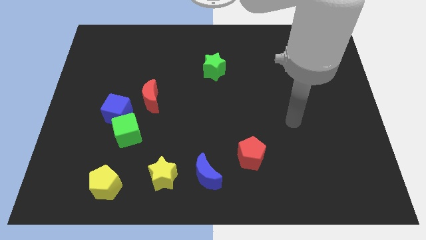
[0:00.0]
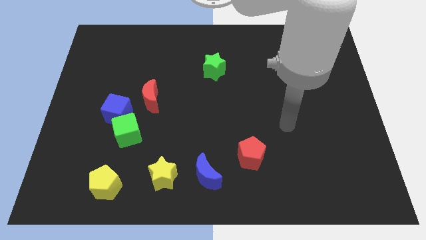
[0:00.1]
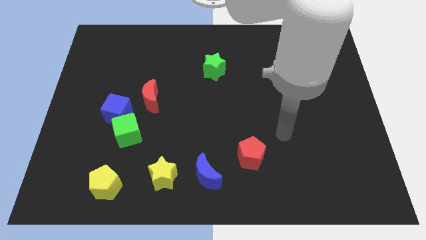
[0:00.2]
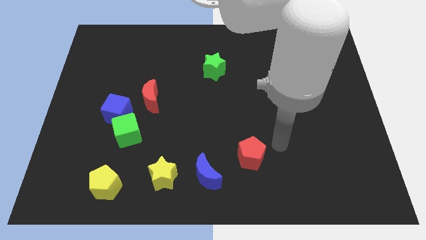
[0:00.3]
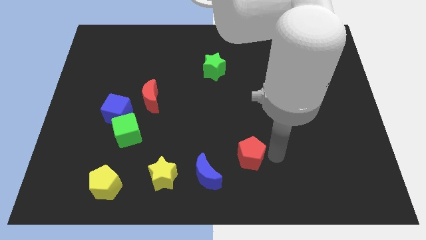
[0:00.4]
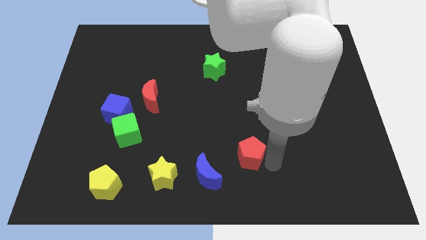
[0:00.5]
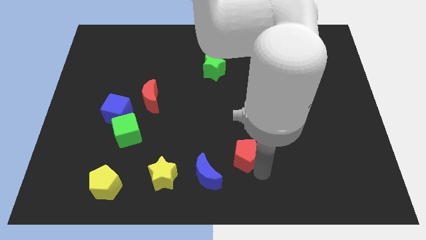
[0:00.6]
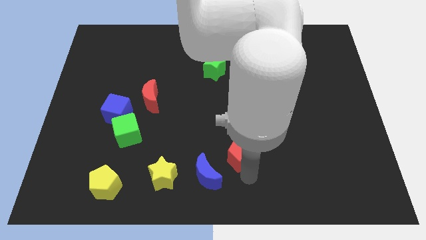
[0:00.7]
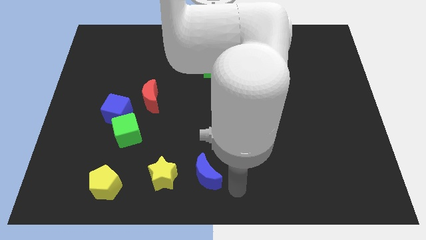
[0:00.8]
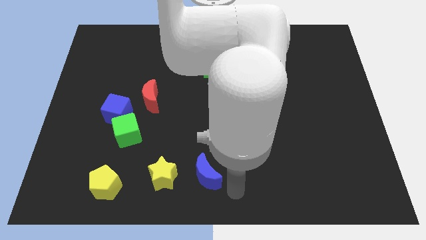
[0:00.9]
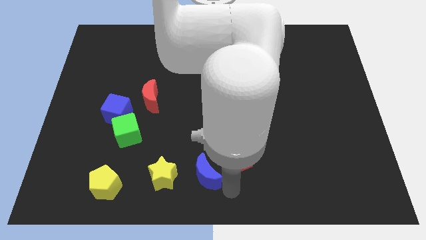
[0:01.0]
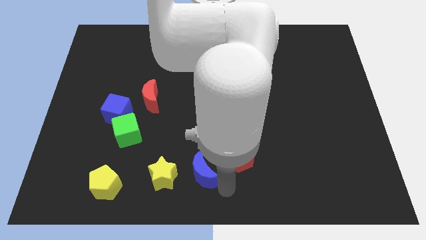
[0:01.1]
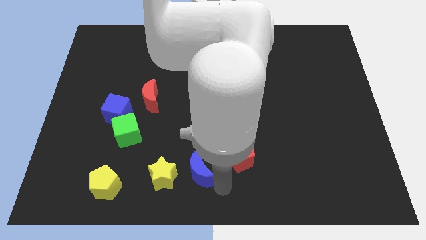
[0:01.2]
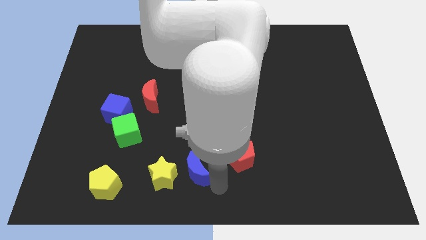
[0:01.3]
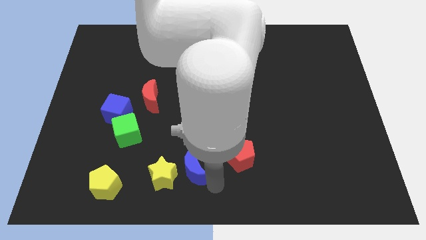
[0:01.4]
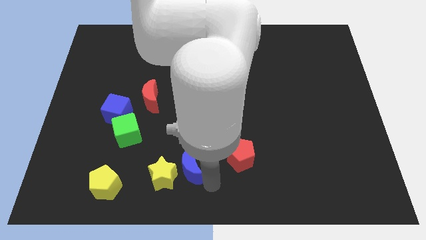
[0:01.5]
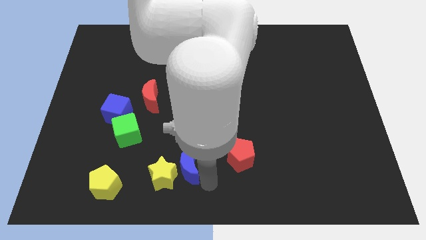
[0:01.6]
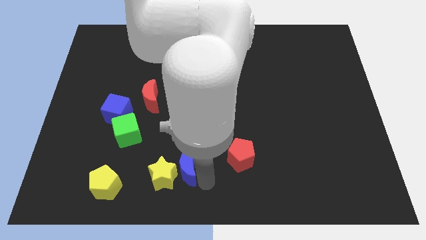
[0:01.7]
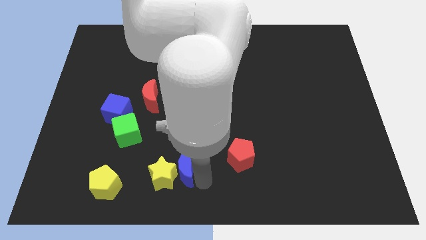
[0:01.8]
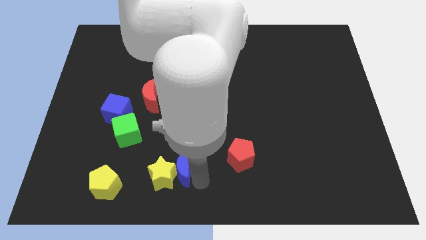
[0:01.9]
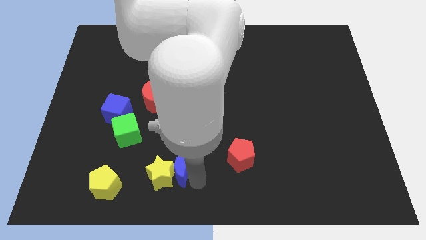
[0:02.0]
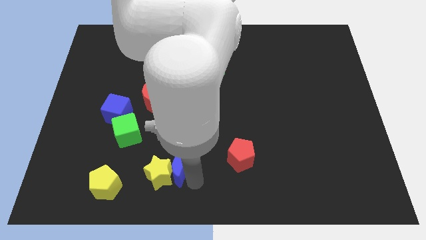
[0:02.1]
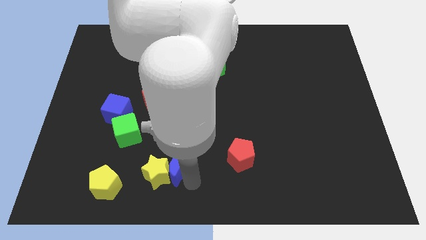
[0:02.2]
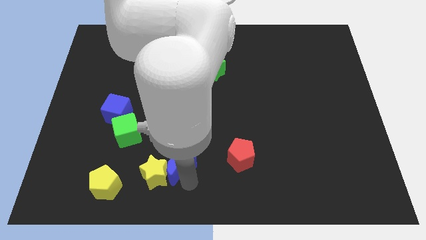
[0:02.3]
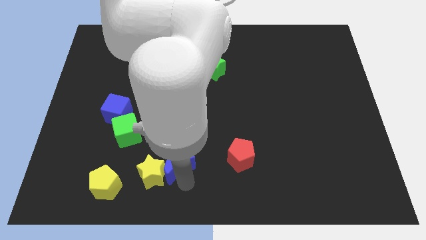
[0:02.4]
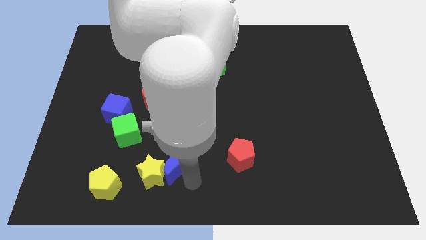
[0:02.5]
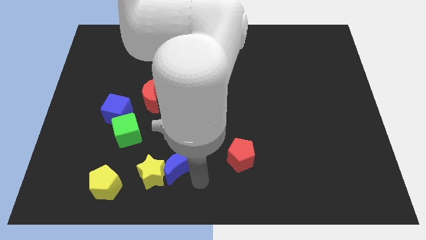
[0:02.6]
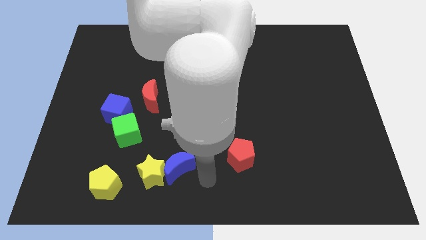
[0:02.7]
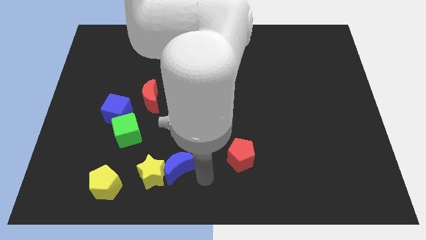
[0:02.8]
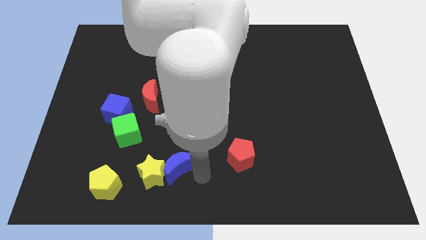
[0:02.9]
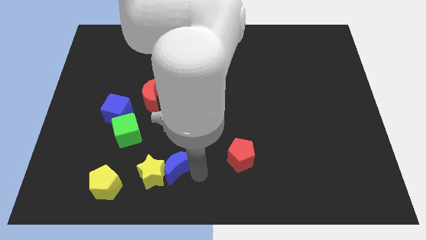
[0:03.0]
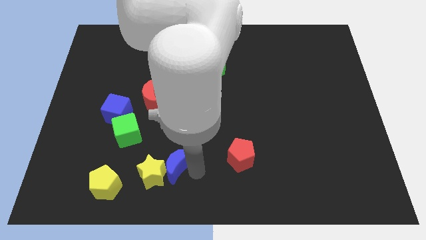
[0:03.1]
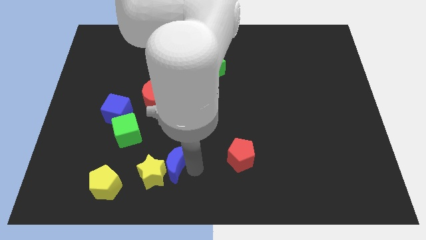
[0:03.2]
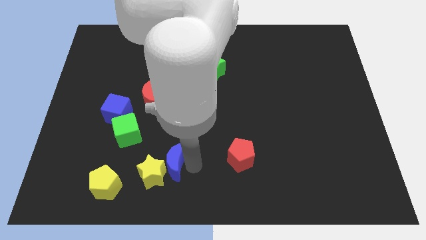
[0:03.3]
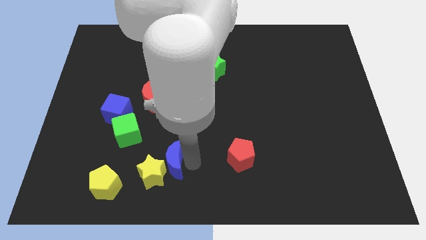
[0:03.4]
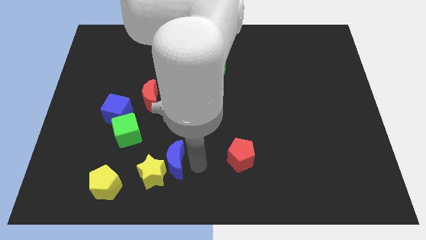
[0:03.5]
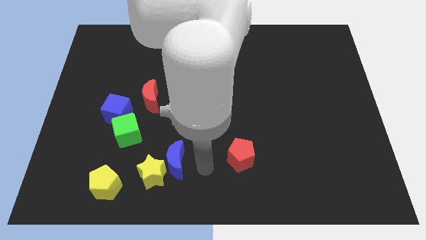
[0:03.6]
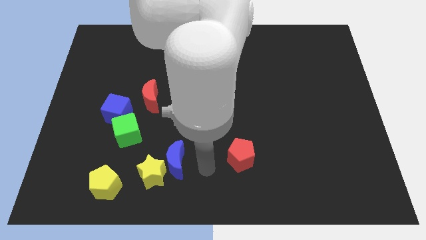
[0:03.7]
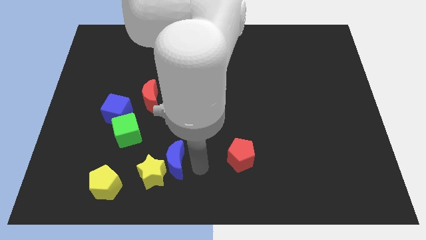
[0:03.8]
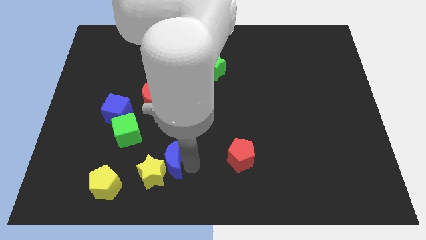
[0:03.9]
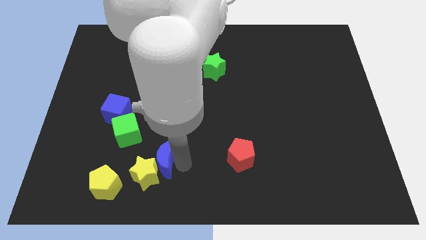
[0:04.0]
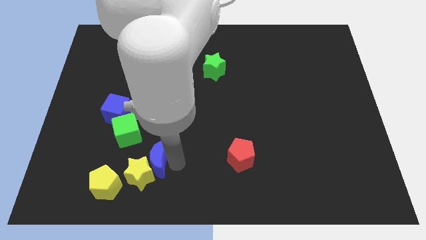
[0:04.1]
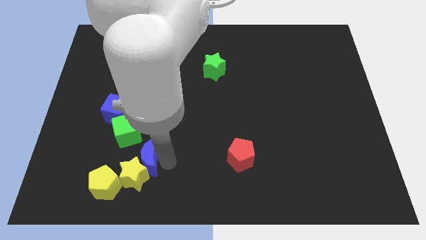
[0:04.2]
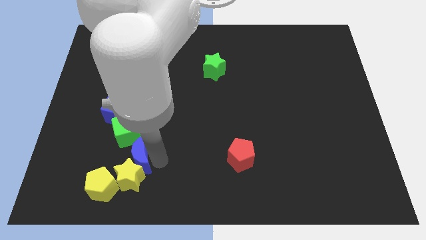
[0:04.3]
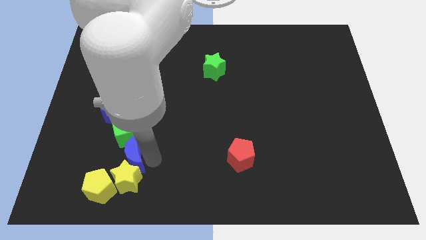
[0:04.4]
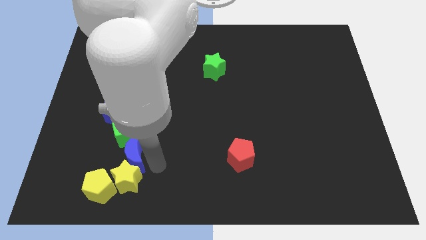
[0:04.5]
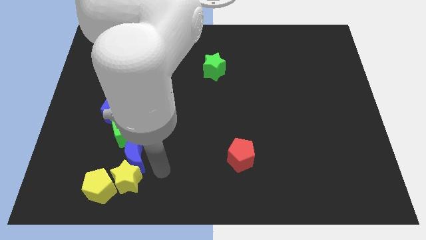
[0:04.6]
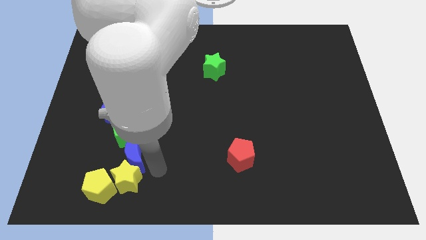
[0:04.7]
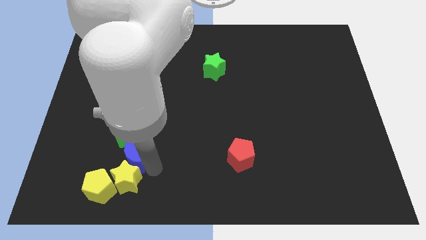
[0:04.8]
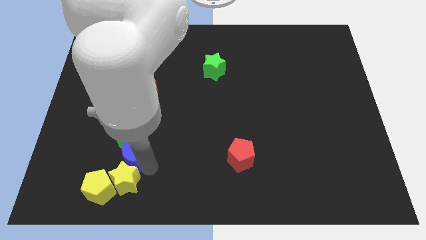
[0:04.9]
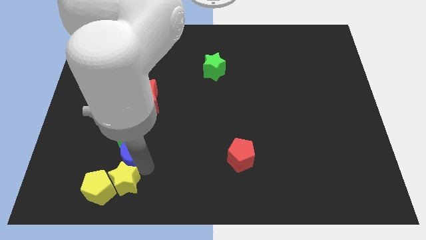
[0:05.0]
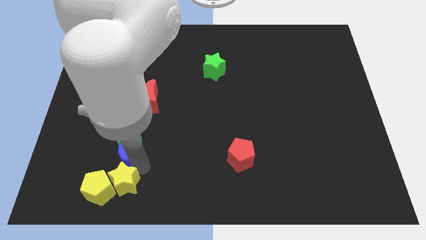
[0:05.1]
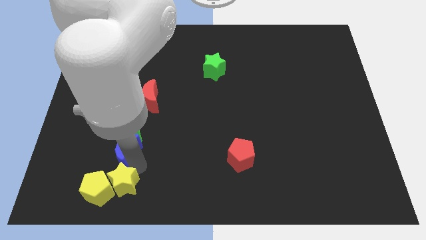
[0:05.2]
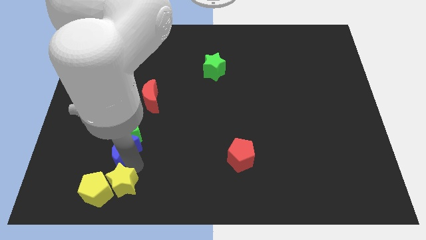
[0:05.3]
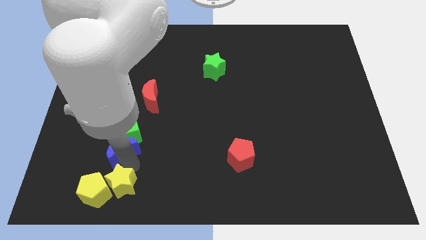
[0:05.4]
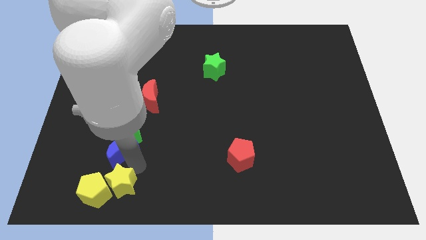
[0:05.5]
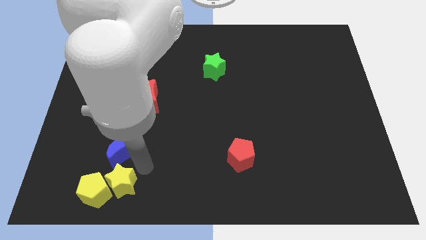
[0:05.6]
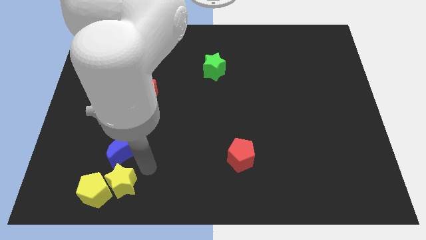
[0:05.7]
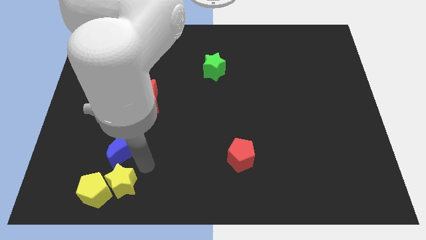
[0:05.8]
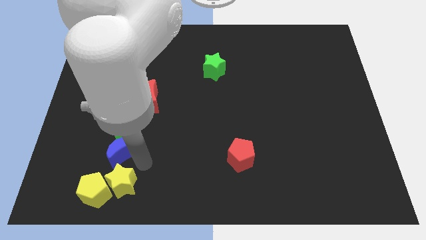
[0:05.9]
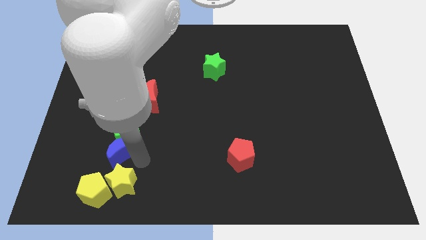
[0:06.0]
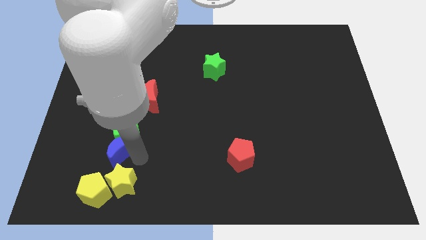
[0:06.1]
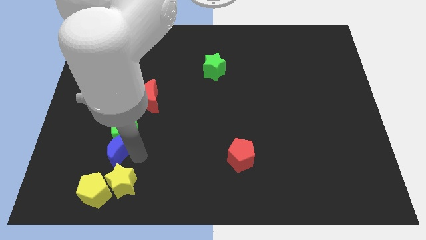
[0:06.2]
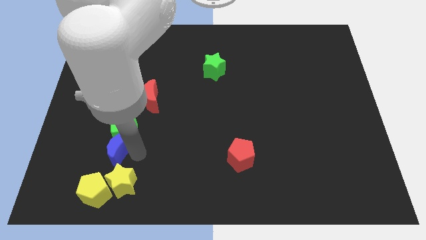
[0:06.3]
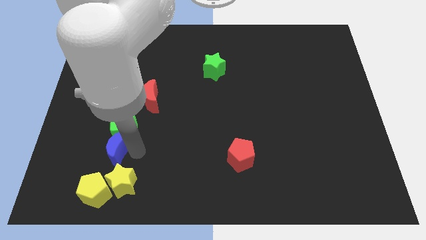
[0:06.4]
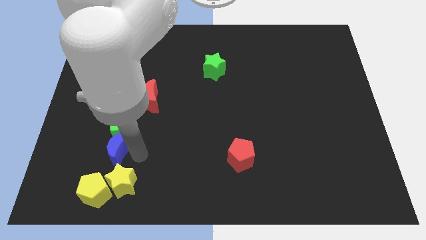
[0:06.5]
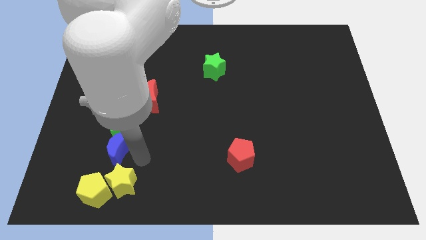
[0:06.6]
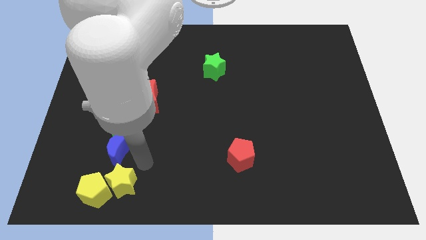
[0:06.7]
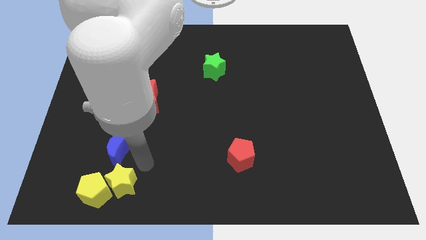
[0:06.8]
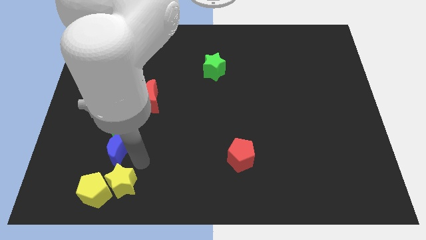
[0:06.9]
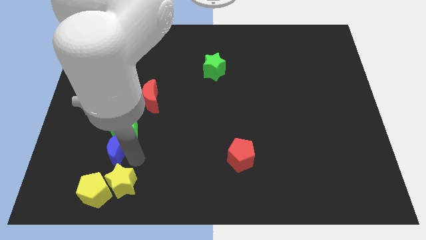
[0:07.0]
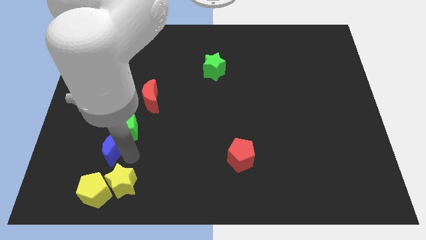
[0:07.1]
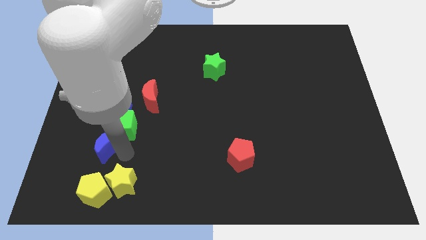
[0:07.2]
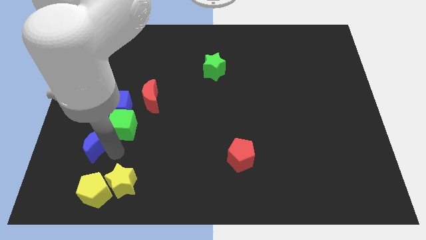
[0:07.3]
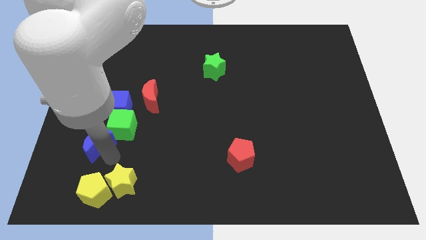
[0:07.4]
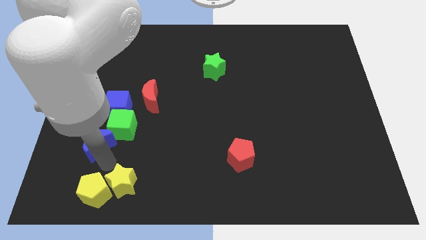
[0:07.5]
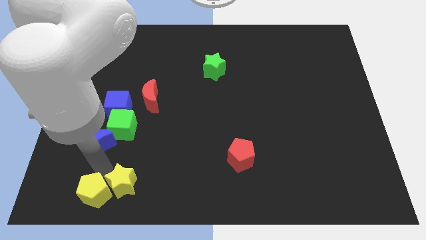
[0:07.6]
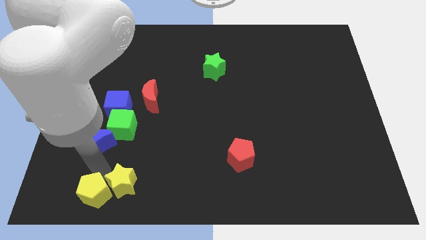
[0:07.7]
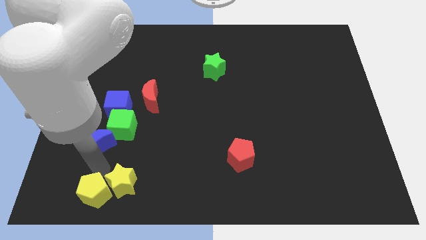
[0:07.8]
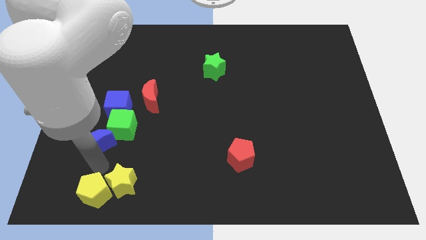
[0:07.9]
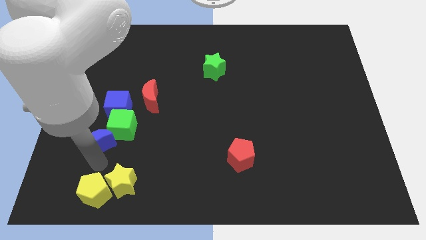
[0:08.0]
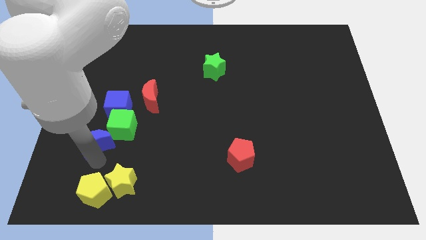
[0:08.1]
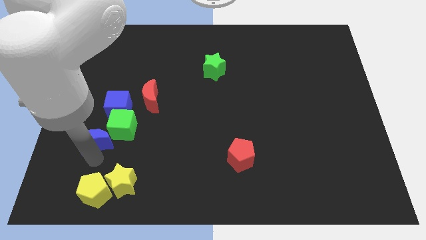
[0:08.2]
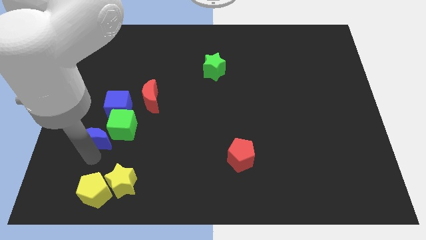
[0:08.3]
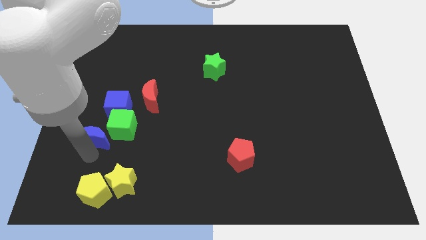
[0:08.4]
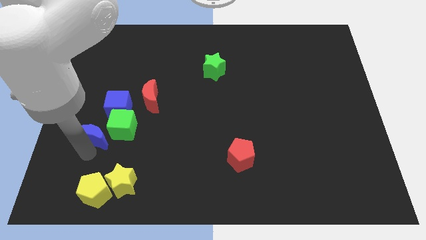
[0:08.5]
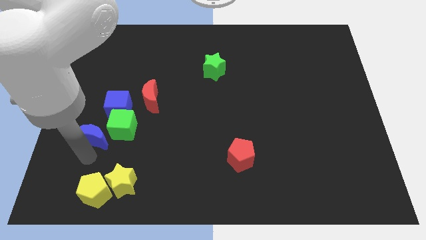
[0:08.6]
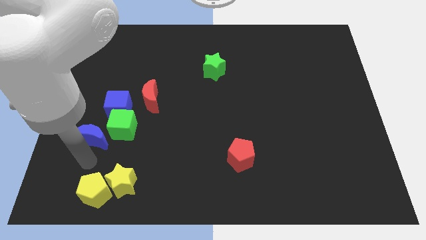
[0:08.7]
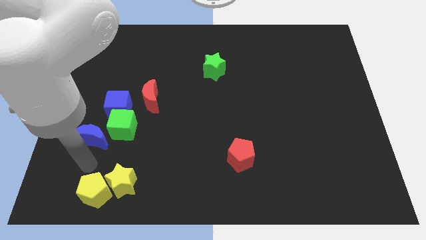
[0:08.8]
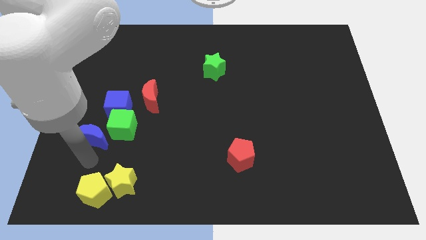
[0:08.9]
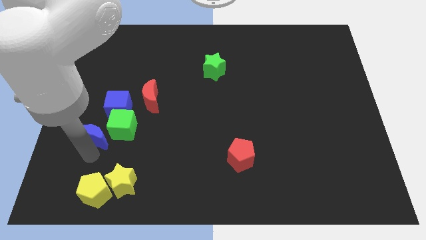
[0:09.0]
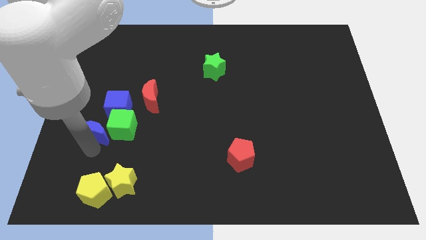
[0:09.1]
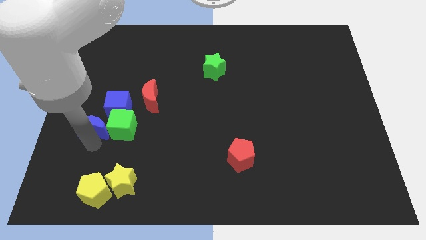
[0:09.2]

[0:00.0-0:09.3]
push the blue moon upwards and to the left
